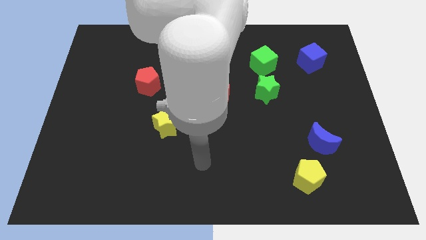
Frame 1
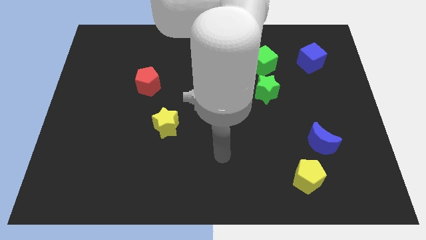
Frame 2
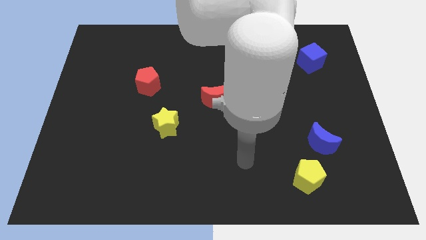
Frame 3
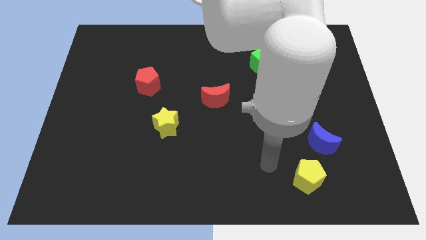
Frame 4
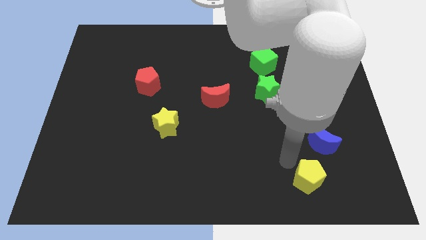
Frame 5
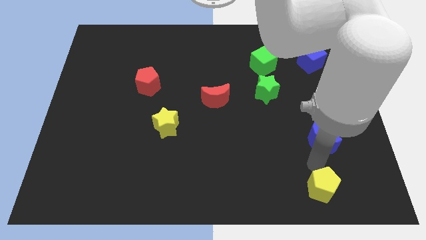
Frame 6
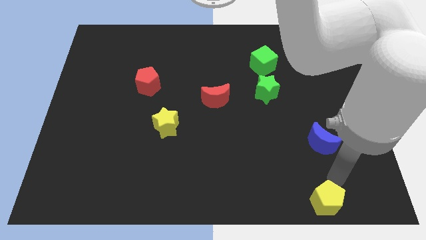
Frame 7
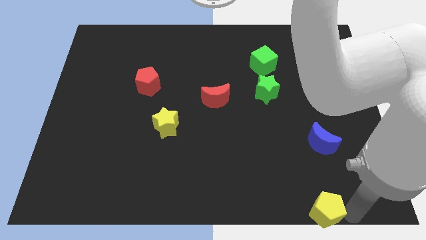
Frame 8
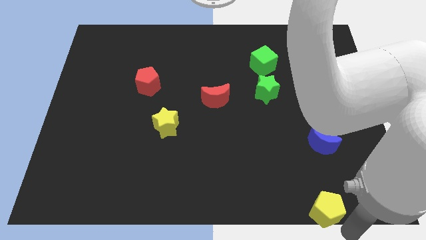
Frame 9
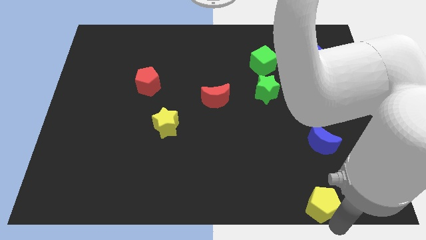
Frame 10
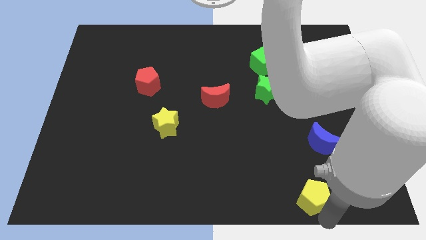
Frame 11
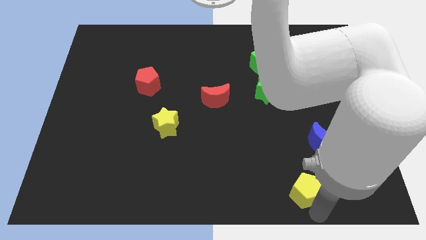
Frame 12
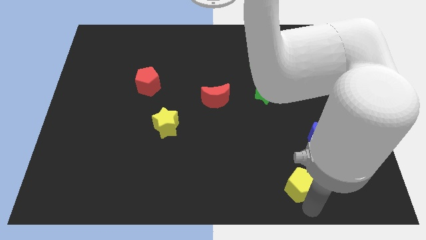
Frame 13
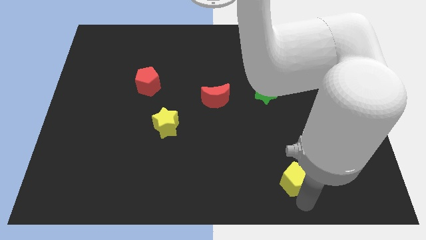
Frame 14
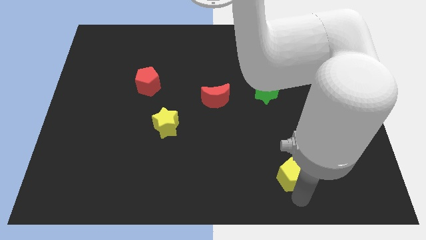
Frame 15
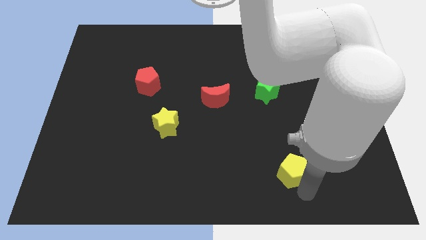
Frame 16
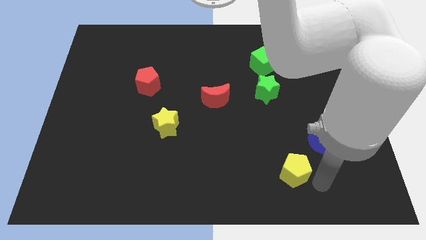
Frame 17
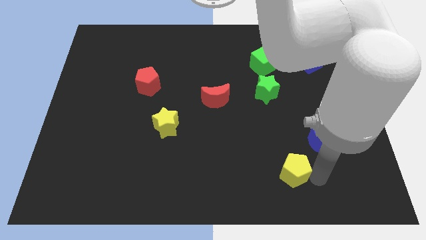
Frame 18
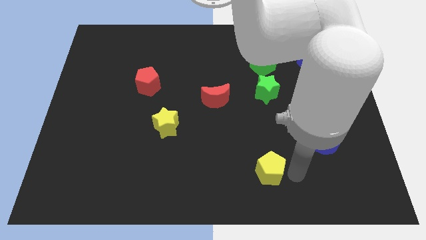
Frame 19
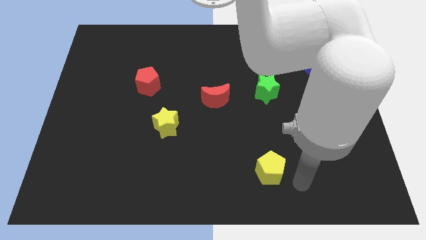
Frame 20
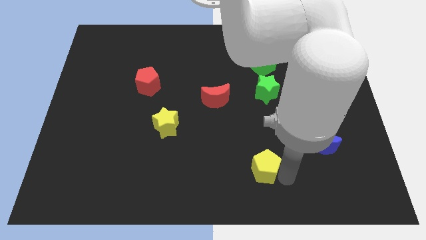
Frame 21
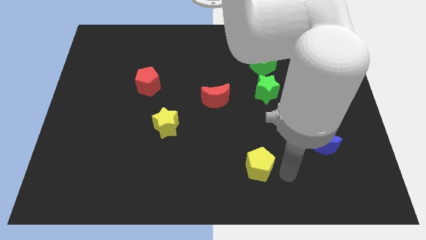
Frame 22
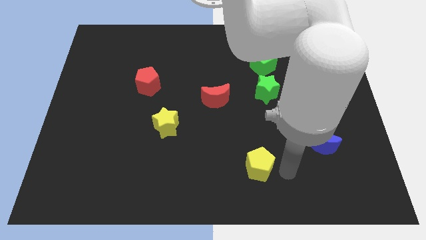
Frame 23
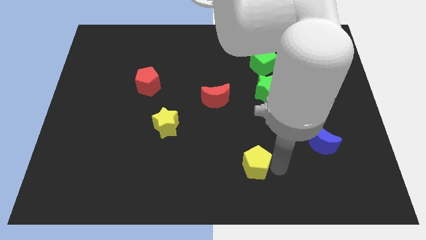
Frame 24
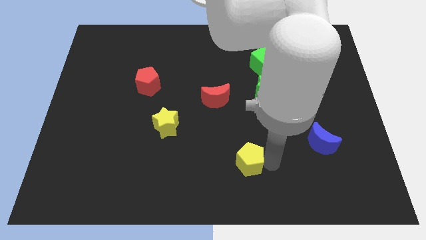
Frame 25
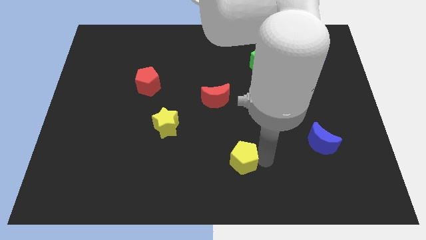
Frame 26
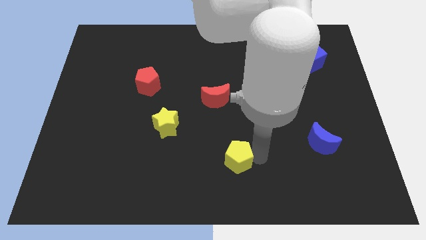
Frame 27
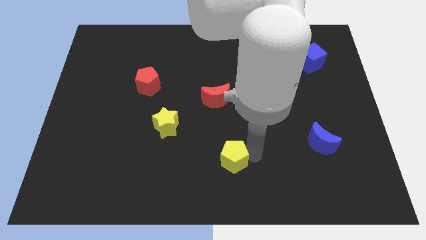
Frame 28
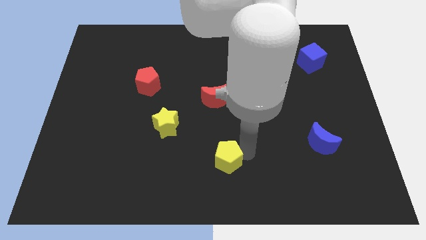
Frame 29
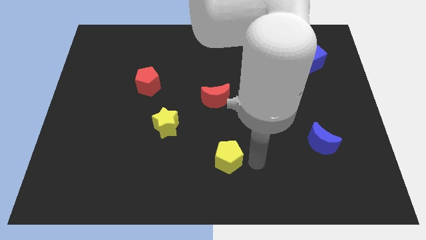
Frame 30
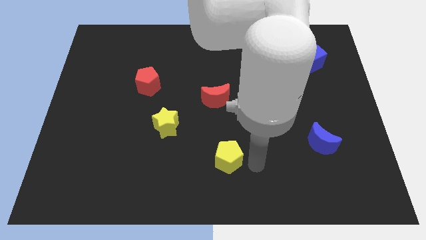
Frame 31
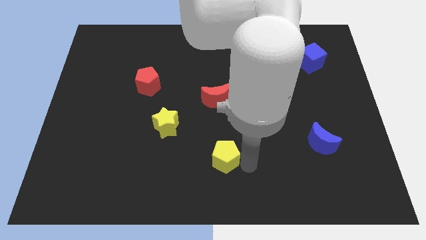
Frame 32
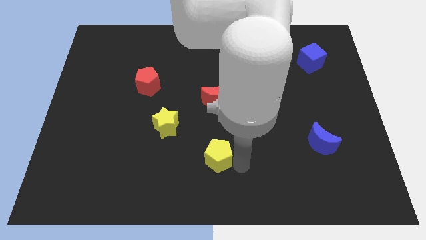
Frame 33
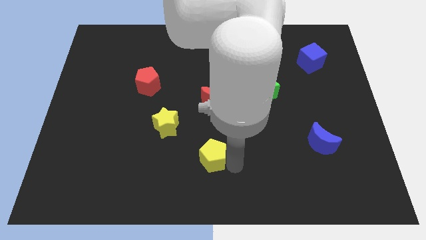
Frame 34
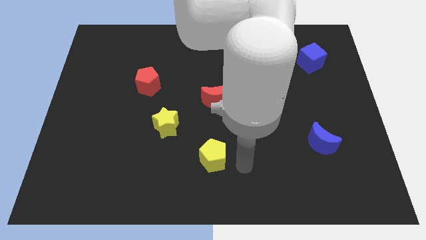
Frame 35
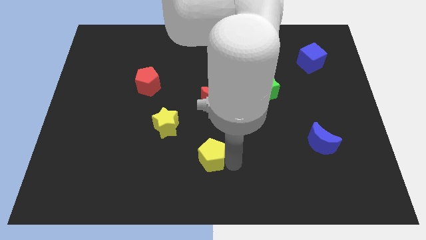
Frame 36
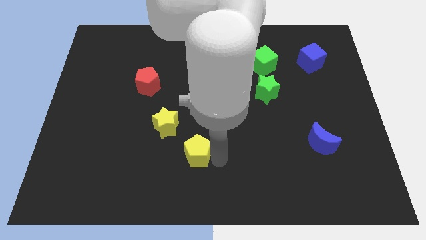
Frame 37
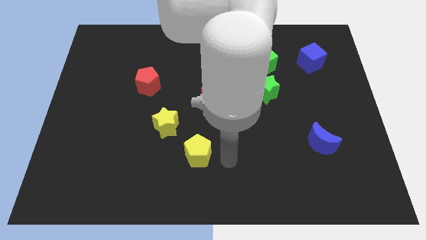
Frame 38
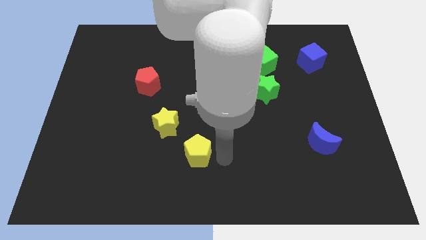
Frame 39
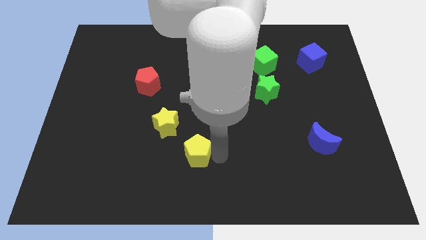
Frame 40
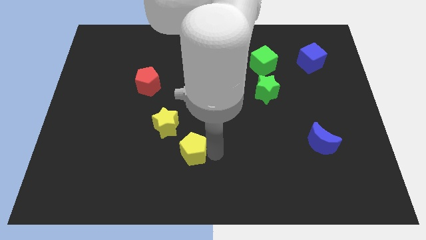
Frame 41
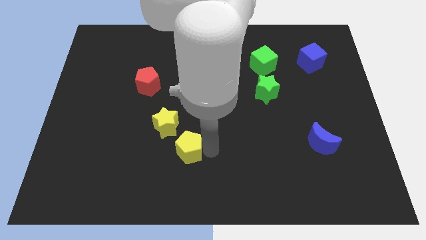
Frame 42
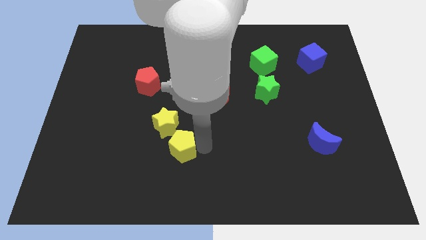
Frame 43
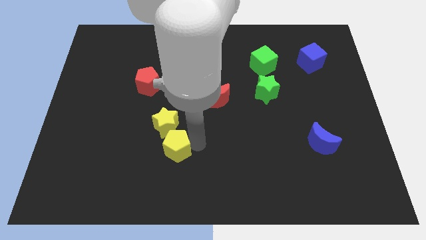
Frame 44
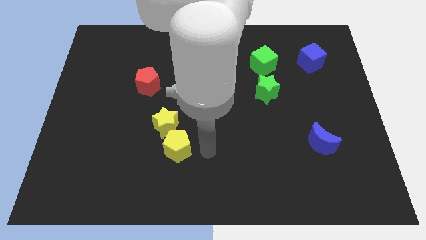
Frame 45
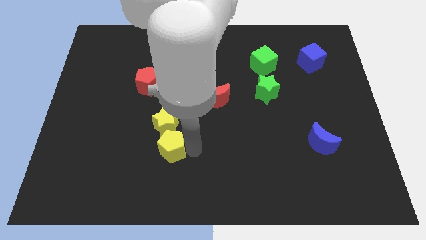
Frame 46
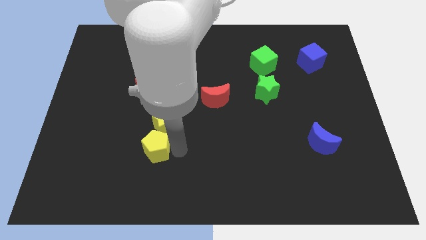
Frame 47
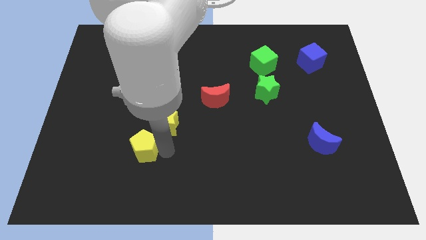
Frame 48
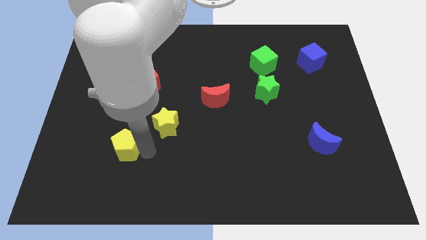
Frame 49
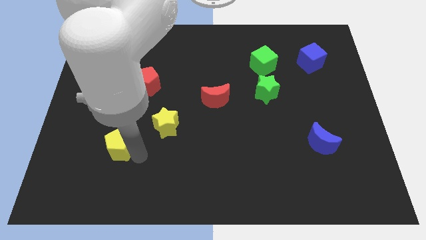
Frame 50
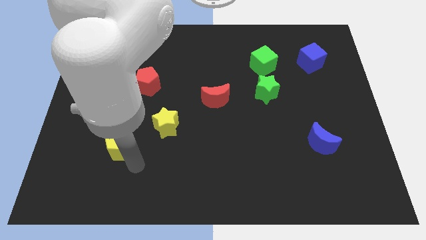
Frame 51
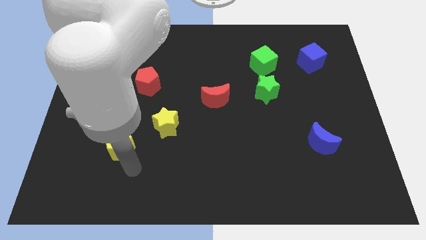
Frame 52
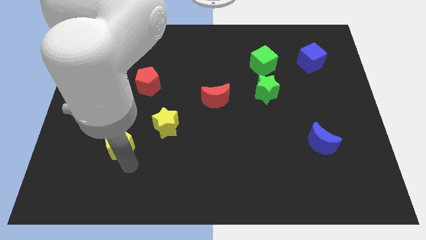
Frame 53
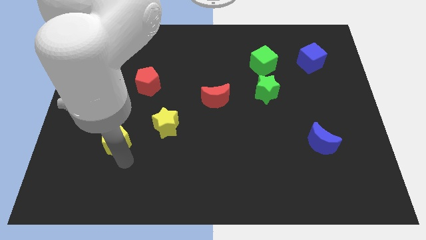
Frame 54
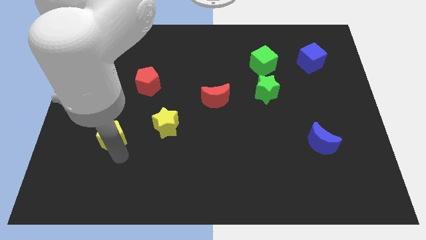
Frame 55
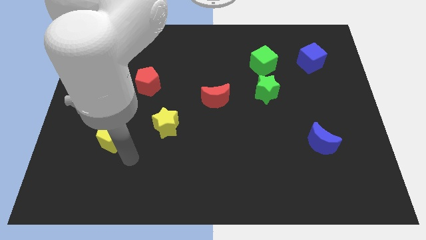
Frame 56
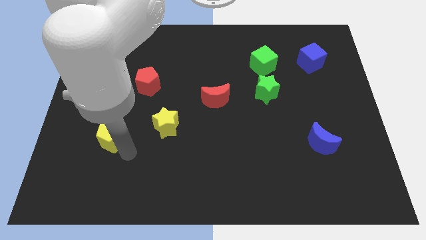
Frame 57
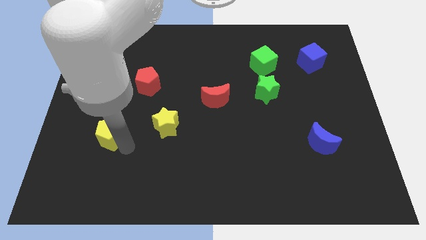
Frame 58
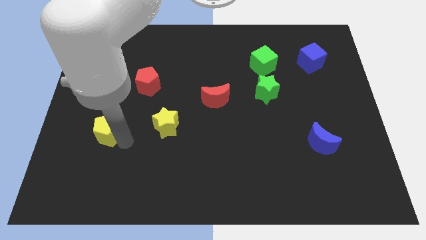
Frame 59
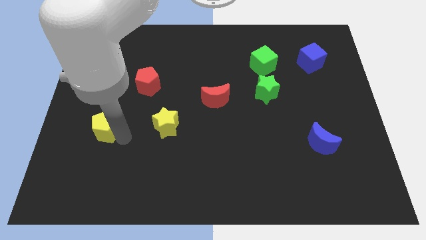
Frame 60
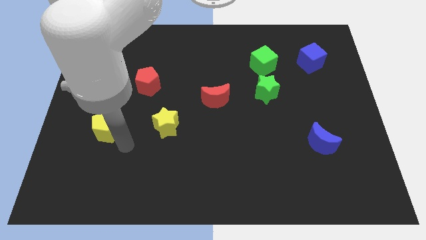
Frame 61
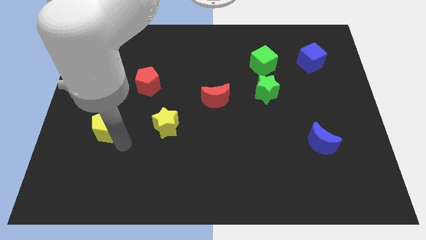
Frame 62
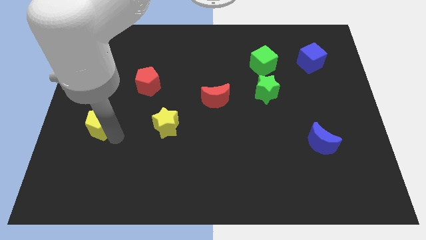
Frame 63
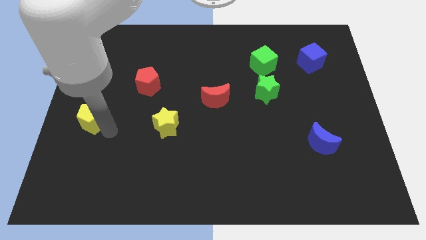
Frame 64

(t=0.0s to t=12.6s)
move the yellow pentagon to the left side

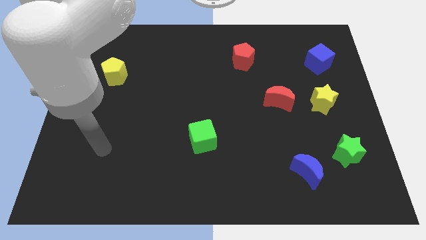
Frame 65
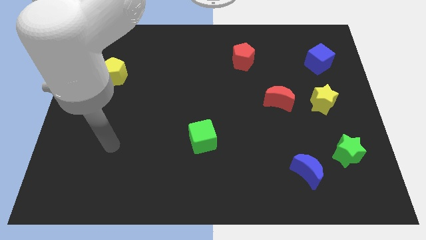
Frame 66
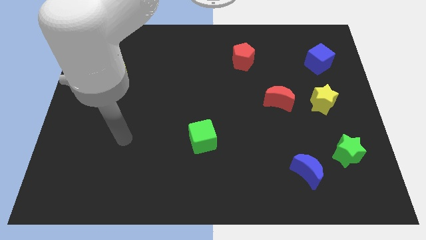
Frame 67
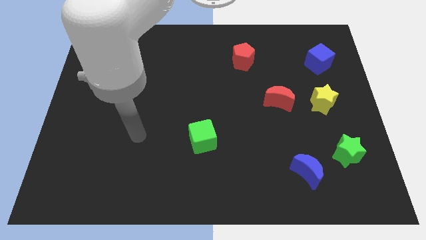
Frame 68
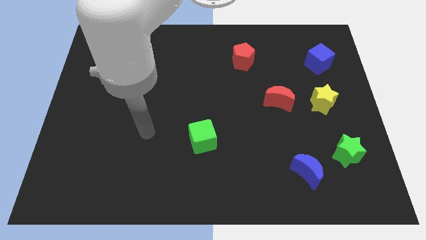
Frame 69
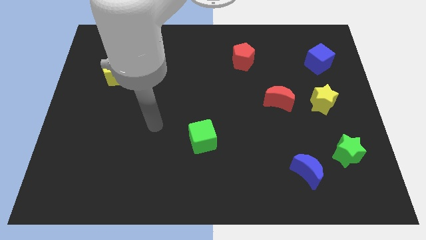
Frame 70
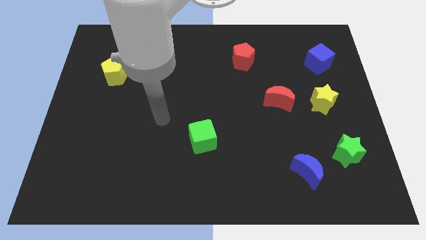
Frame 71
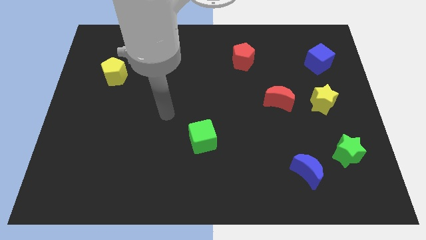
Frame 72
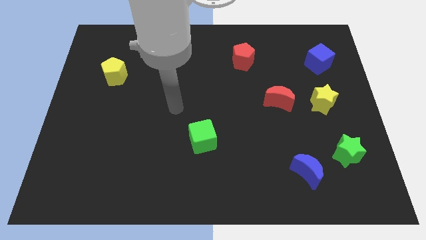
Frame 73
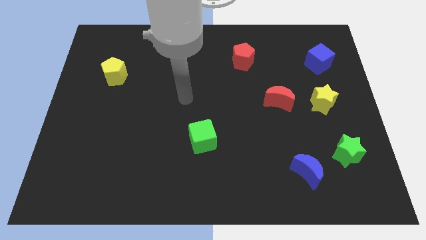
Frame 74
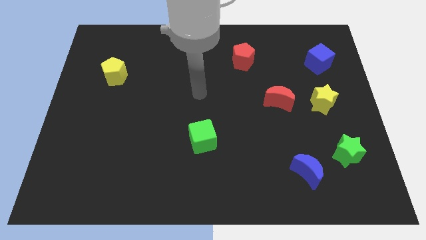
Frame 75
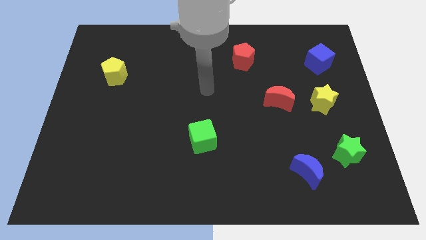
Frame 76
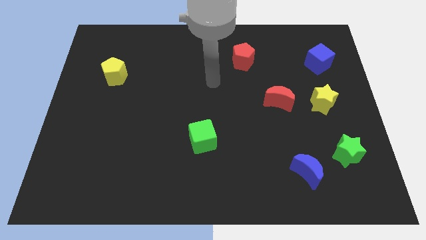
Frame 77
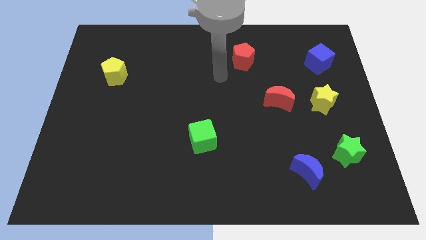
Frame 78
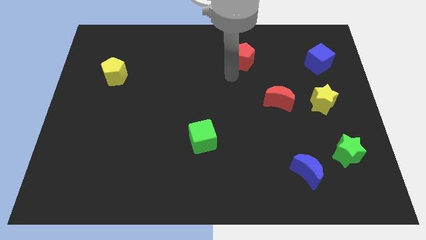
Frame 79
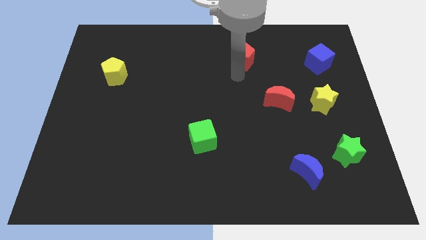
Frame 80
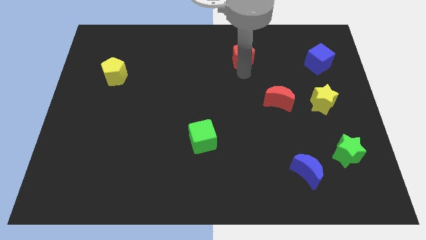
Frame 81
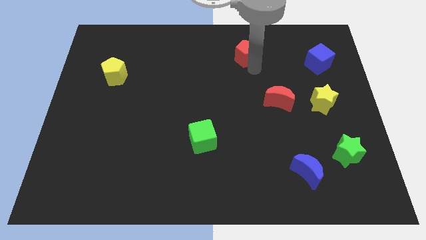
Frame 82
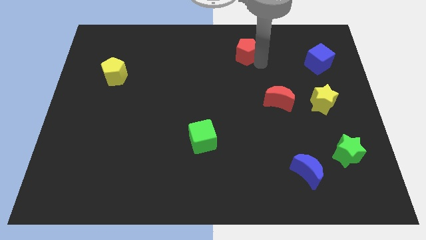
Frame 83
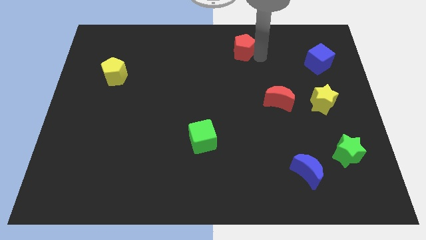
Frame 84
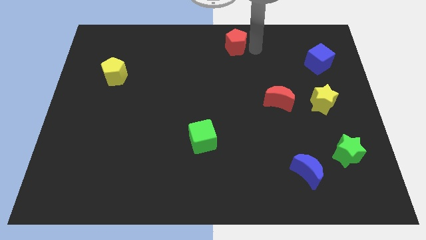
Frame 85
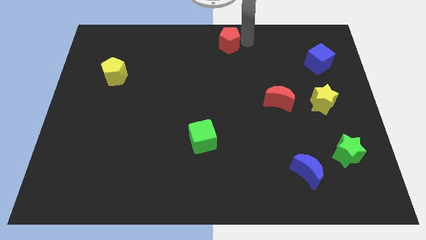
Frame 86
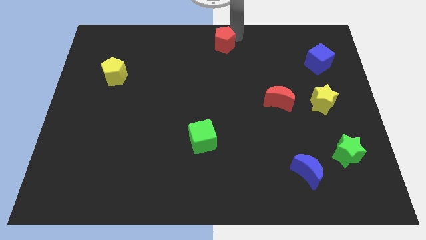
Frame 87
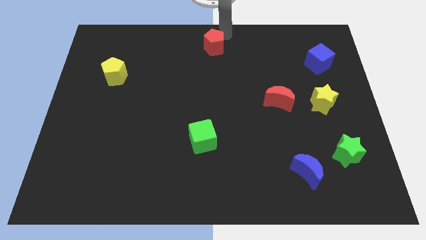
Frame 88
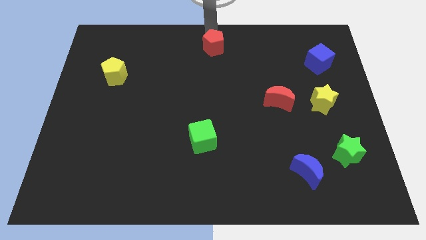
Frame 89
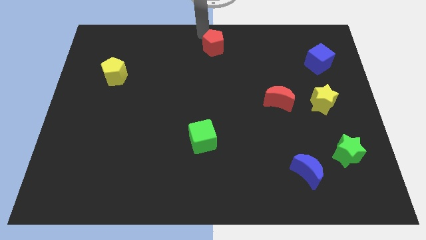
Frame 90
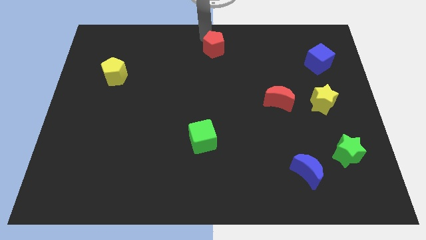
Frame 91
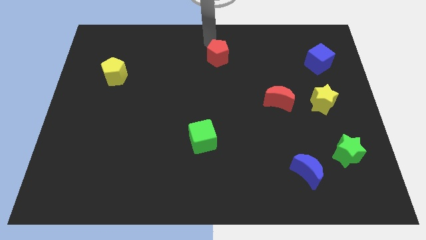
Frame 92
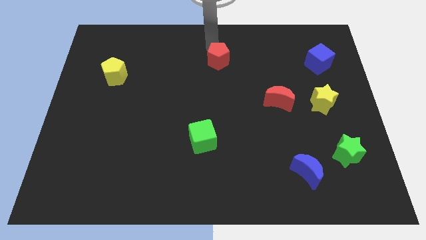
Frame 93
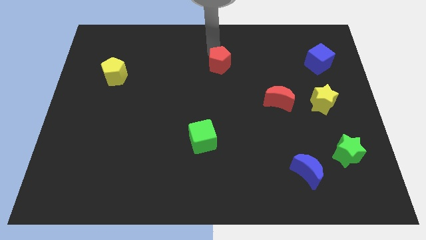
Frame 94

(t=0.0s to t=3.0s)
slide the red pentagon to the center
